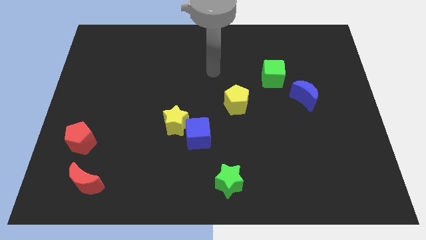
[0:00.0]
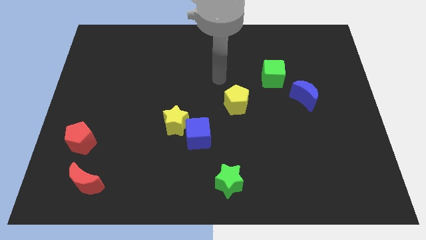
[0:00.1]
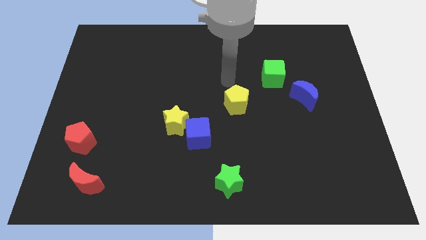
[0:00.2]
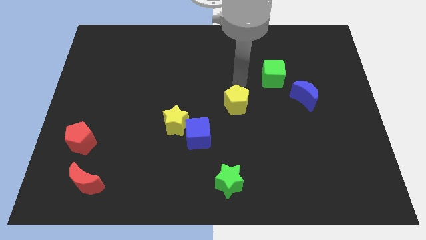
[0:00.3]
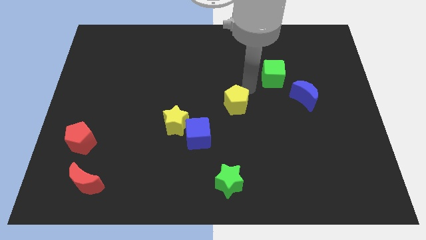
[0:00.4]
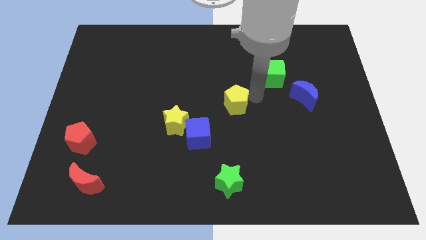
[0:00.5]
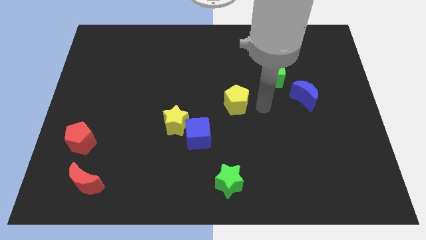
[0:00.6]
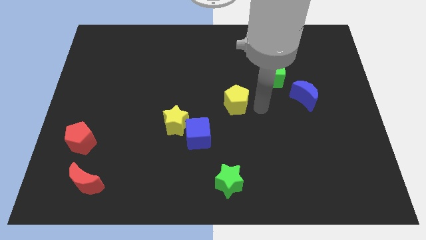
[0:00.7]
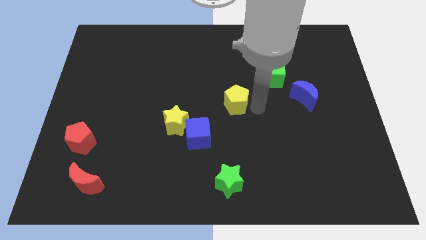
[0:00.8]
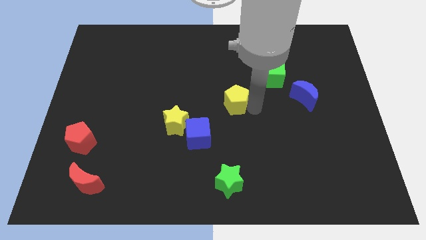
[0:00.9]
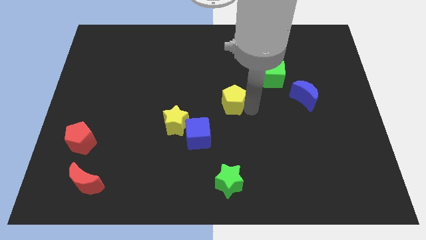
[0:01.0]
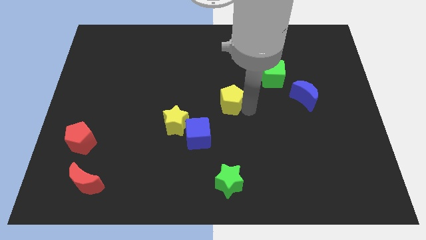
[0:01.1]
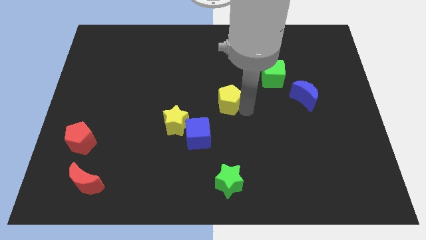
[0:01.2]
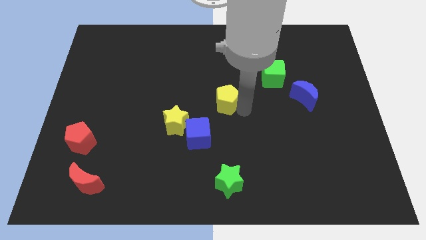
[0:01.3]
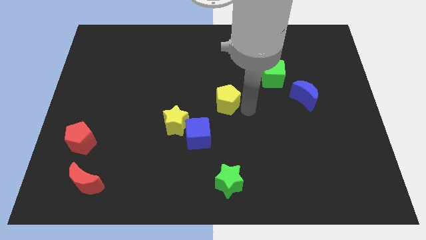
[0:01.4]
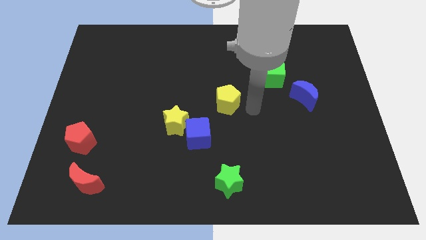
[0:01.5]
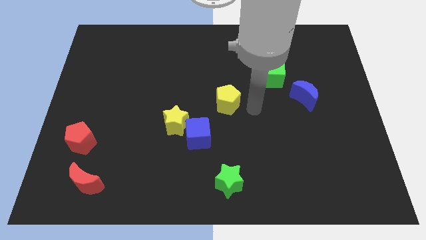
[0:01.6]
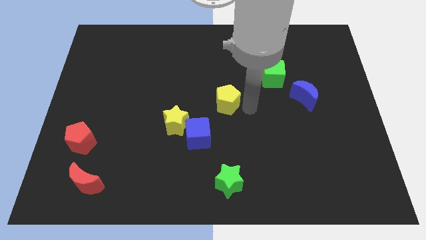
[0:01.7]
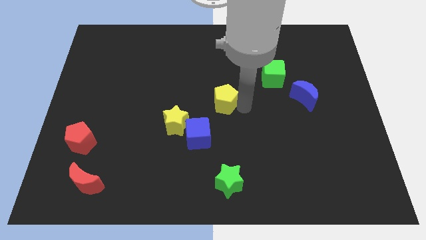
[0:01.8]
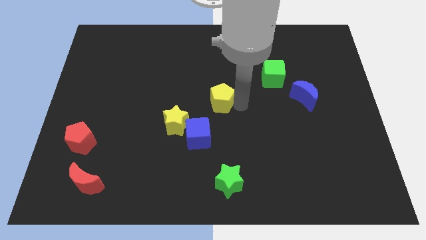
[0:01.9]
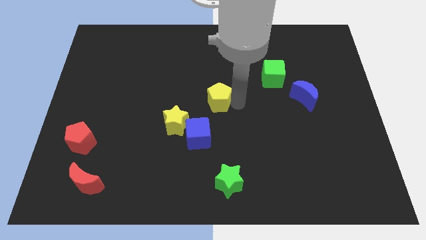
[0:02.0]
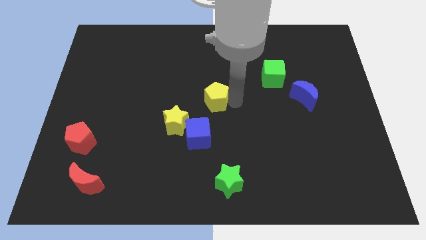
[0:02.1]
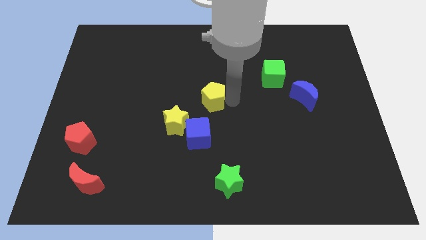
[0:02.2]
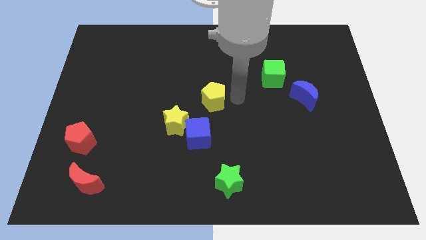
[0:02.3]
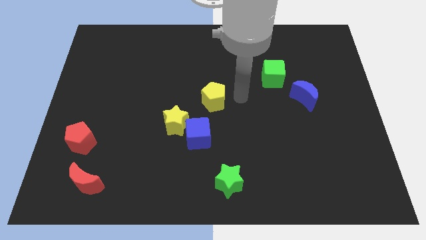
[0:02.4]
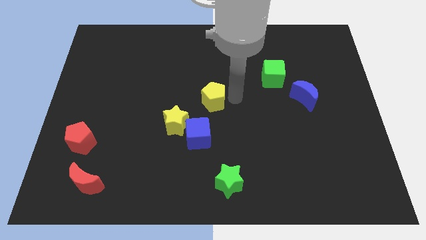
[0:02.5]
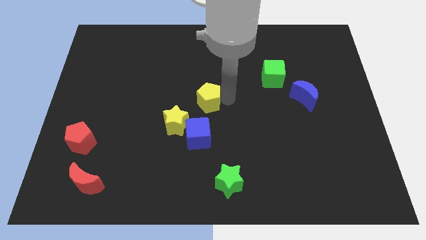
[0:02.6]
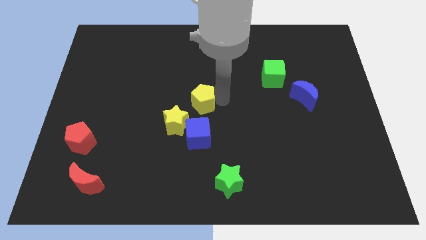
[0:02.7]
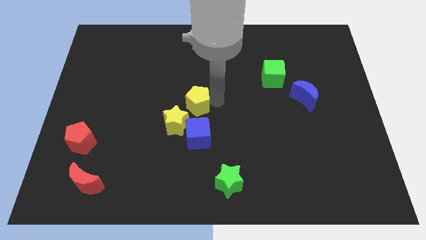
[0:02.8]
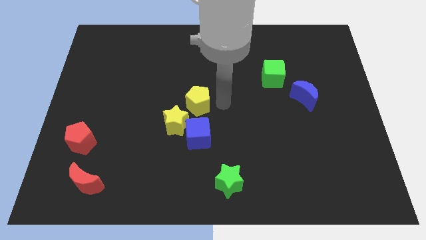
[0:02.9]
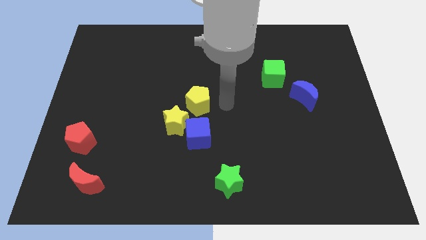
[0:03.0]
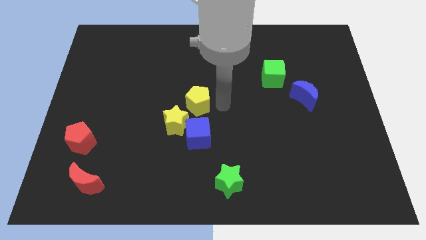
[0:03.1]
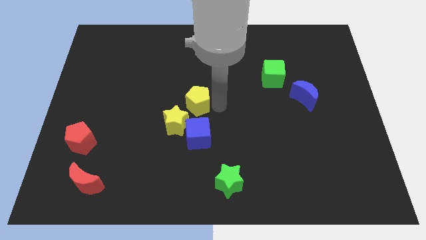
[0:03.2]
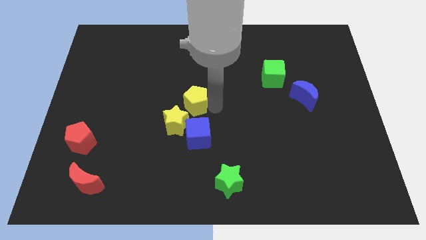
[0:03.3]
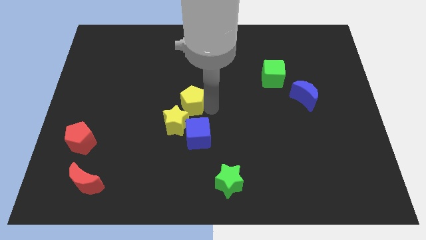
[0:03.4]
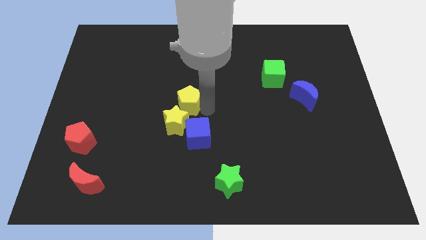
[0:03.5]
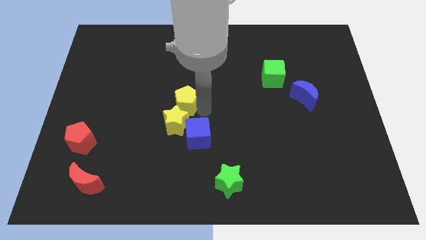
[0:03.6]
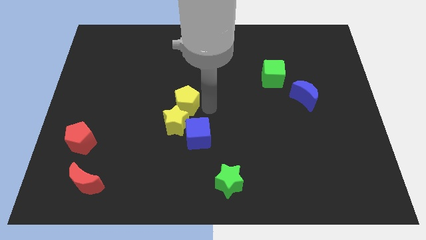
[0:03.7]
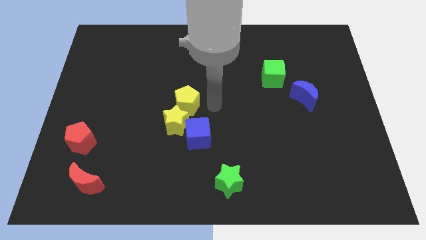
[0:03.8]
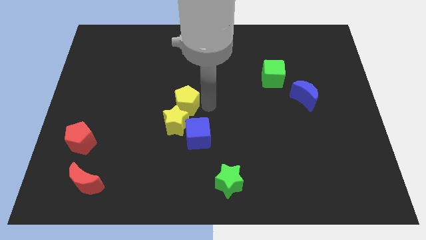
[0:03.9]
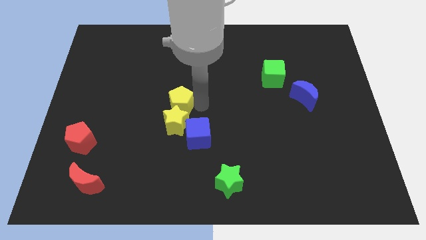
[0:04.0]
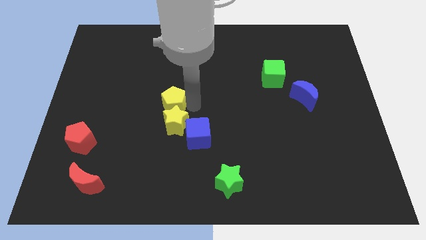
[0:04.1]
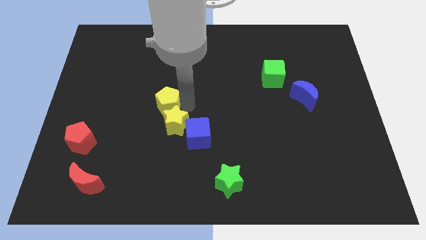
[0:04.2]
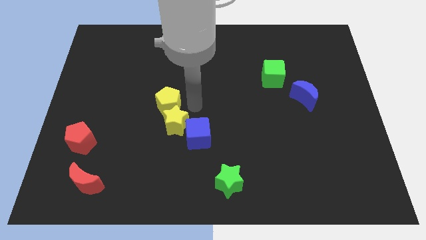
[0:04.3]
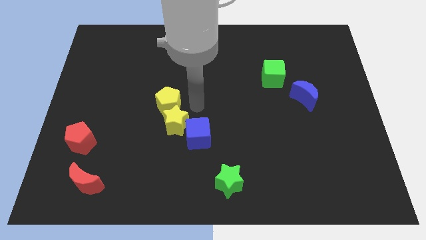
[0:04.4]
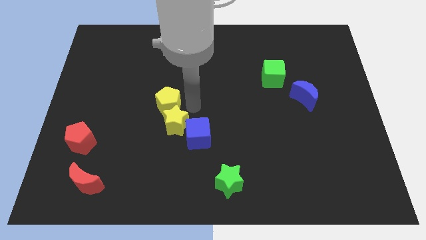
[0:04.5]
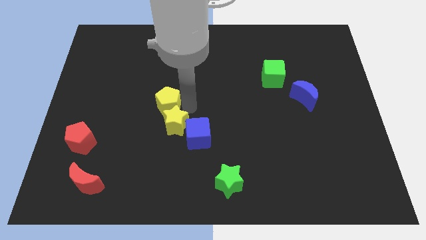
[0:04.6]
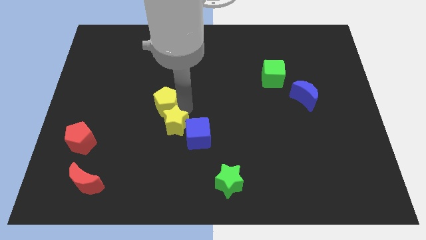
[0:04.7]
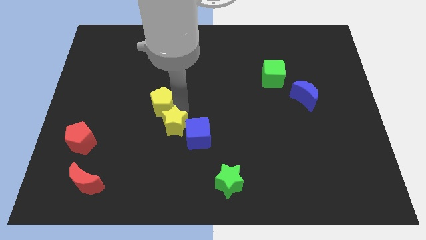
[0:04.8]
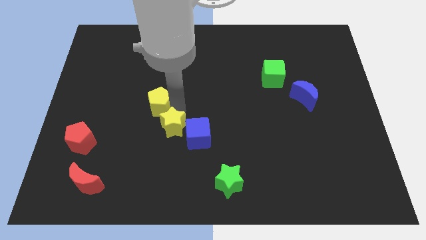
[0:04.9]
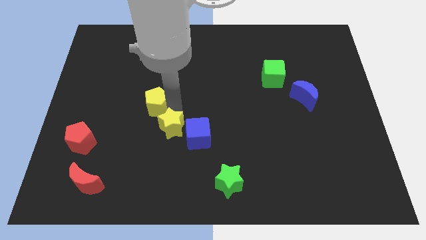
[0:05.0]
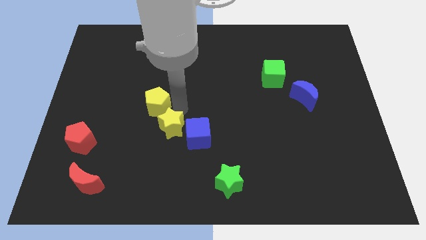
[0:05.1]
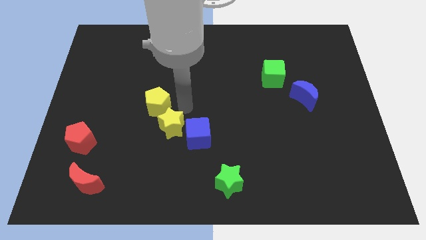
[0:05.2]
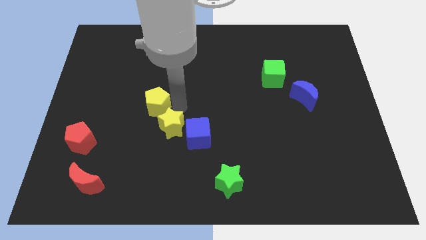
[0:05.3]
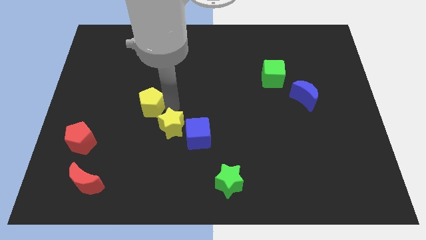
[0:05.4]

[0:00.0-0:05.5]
slide the yellow pentagon left

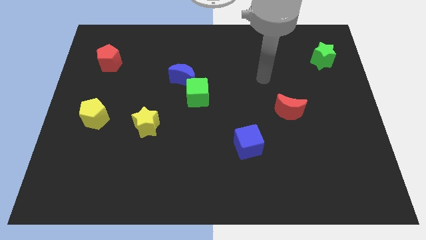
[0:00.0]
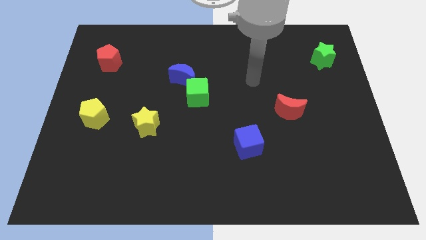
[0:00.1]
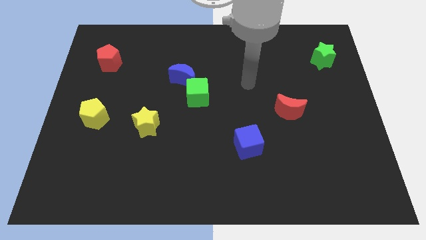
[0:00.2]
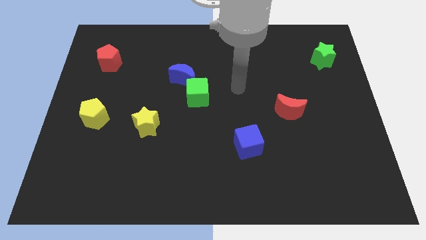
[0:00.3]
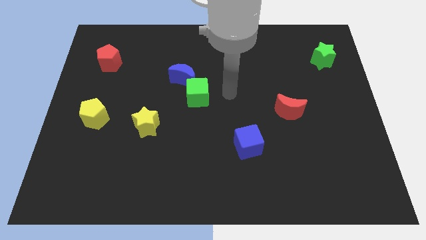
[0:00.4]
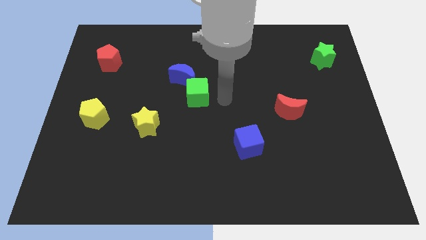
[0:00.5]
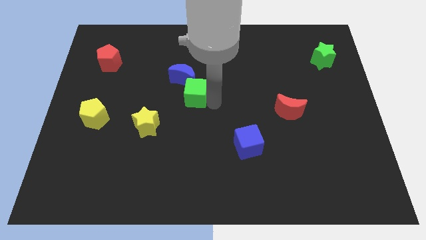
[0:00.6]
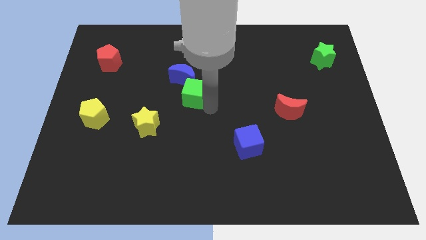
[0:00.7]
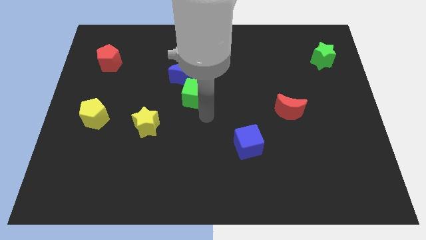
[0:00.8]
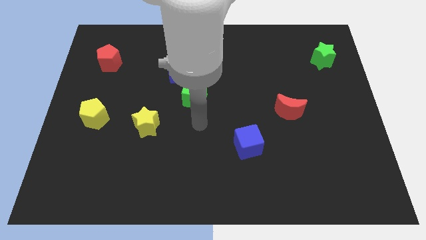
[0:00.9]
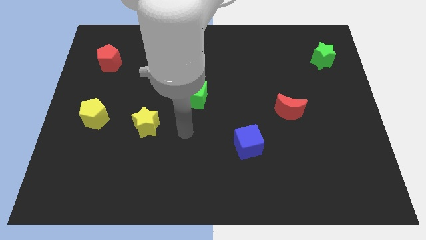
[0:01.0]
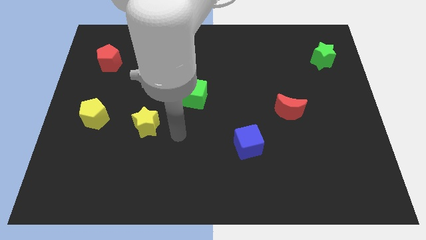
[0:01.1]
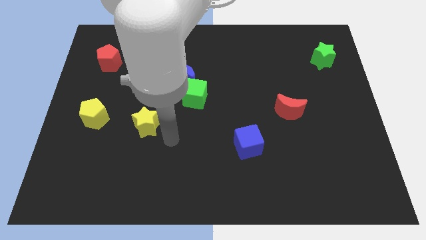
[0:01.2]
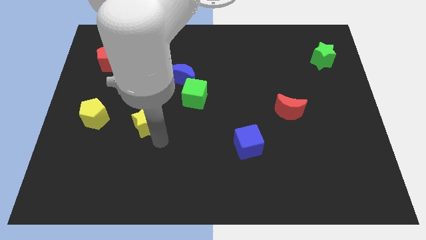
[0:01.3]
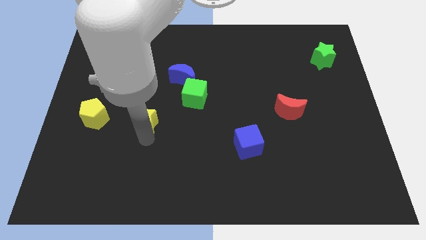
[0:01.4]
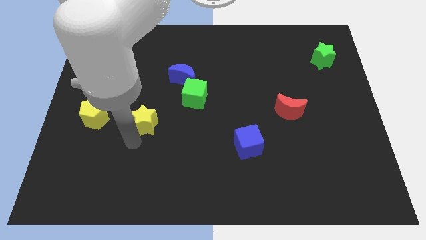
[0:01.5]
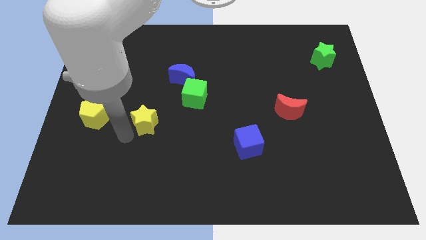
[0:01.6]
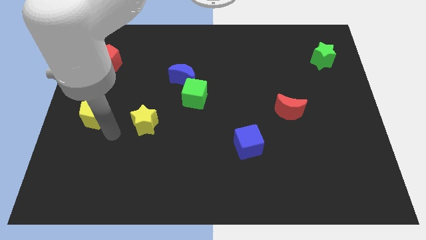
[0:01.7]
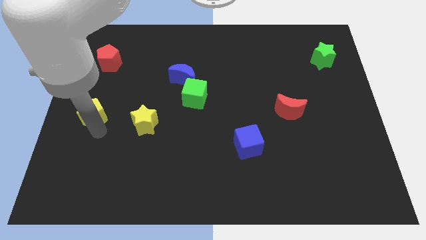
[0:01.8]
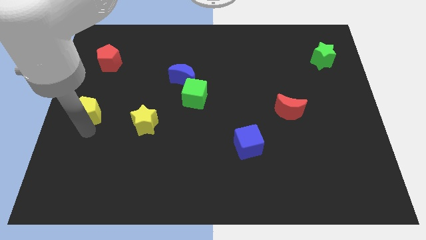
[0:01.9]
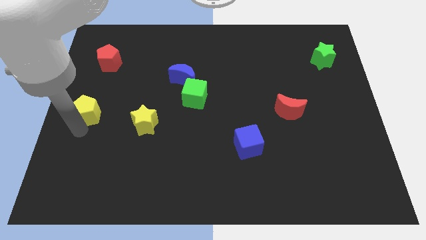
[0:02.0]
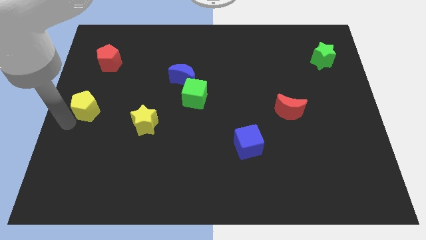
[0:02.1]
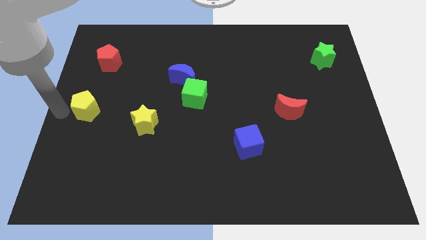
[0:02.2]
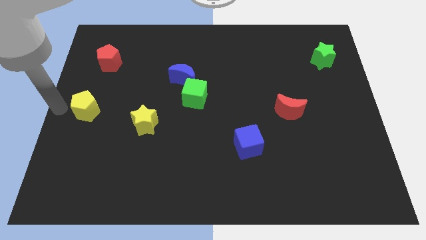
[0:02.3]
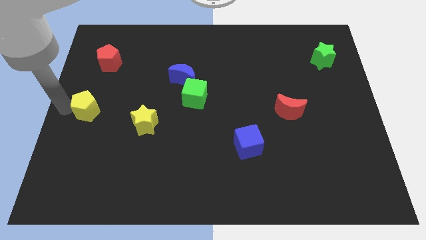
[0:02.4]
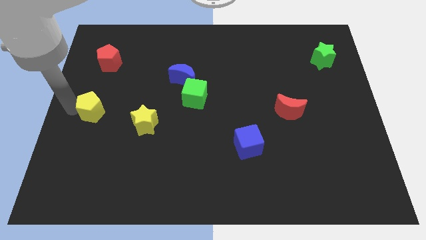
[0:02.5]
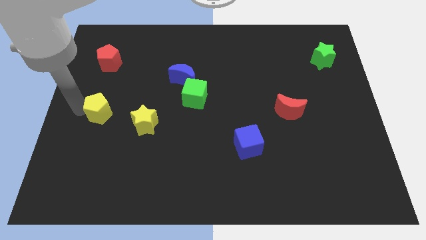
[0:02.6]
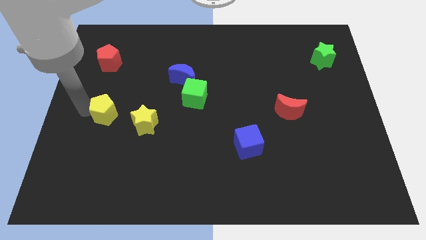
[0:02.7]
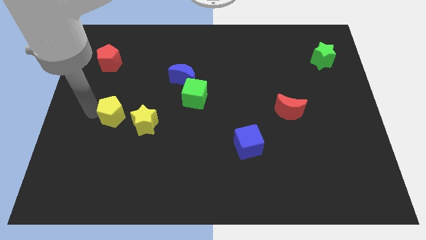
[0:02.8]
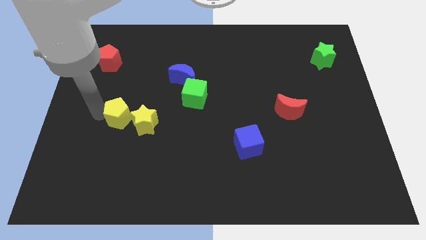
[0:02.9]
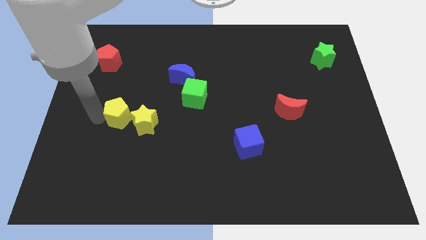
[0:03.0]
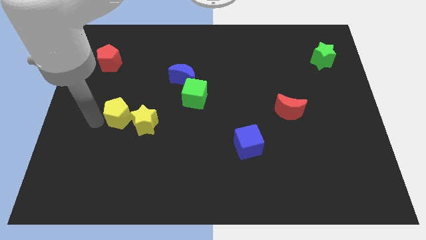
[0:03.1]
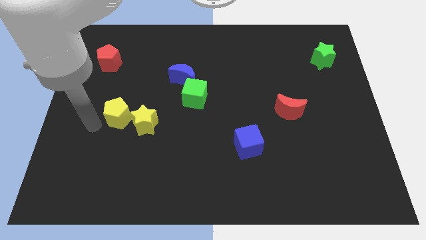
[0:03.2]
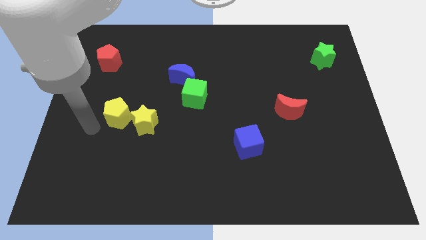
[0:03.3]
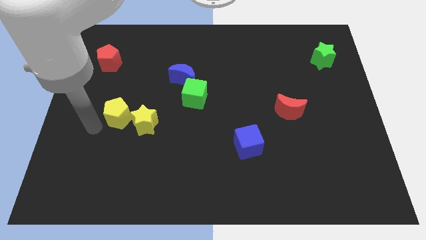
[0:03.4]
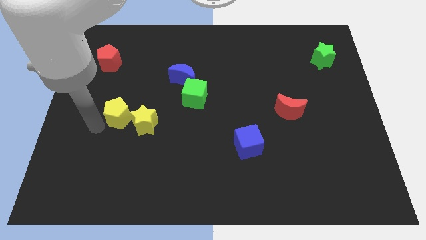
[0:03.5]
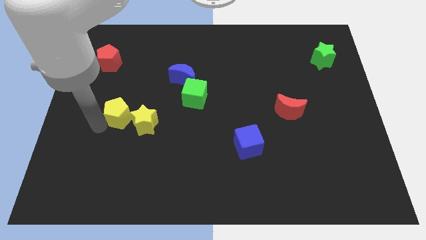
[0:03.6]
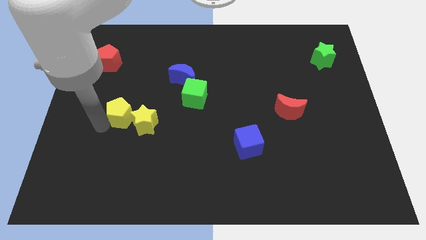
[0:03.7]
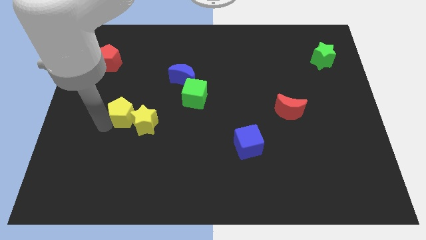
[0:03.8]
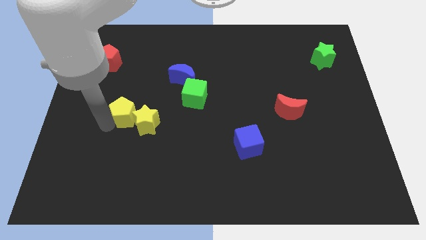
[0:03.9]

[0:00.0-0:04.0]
push the yellow pentagon to the right slightly
